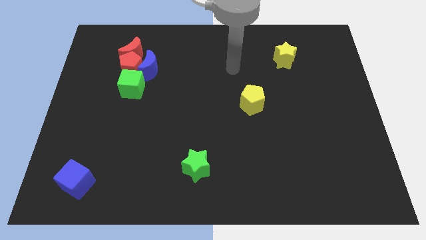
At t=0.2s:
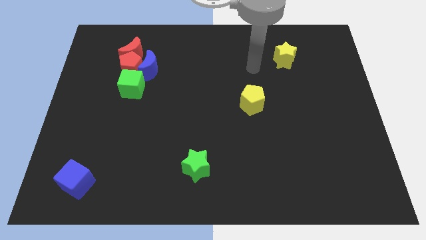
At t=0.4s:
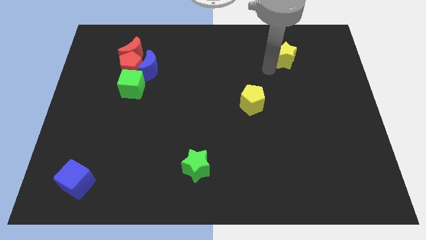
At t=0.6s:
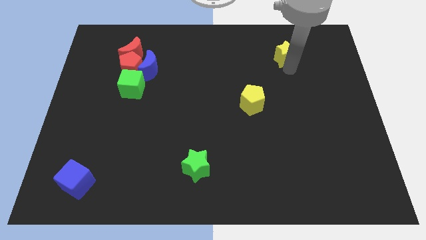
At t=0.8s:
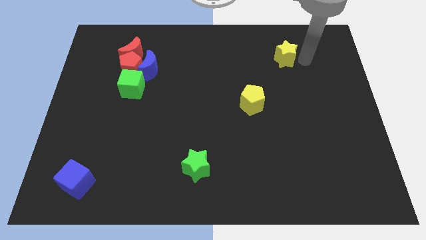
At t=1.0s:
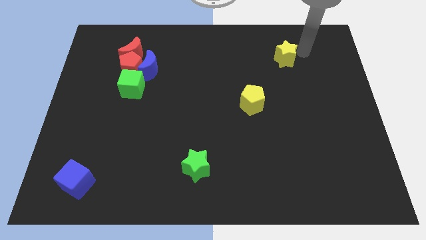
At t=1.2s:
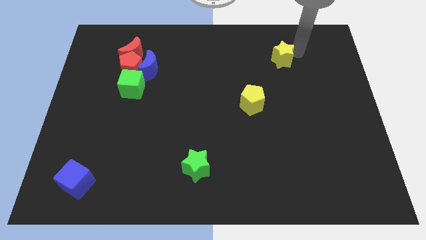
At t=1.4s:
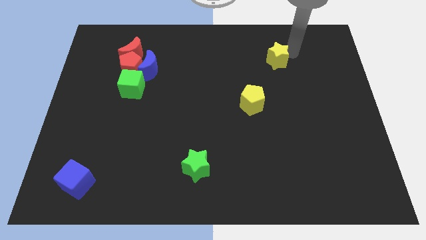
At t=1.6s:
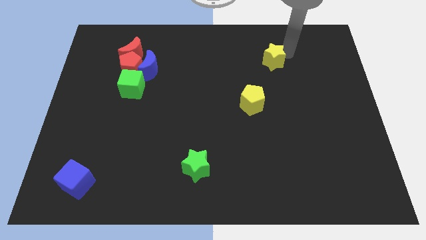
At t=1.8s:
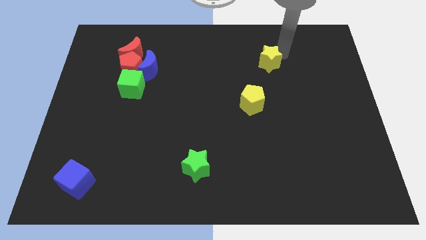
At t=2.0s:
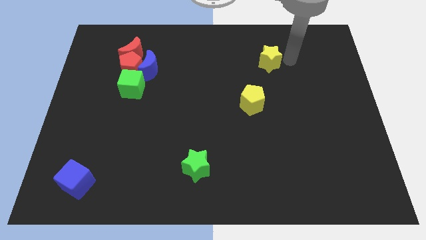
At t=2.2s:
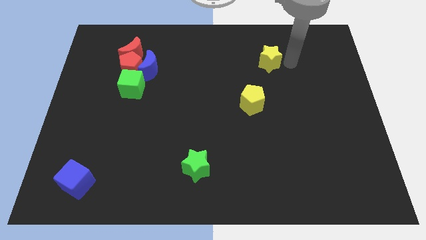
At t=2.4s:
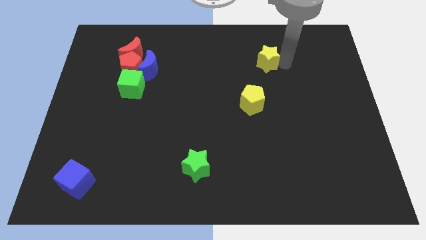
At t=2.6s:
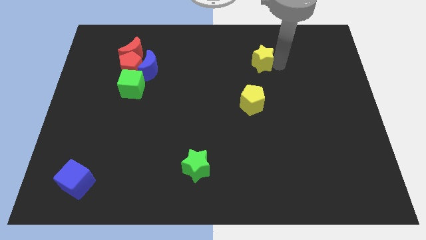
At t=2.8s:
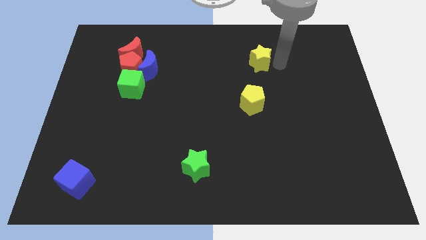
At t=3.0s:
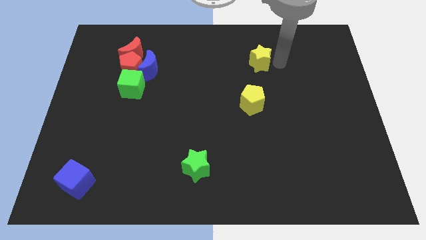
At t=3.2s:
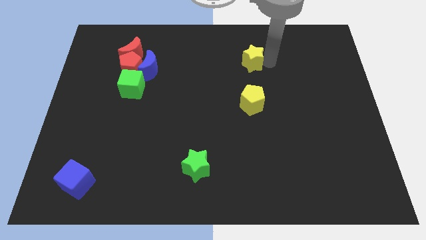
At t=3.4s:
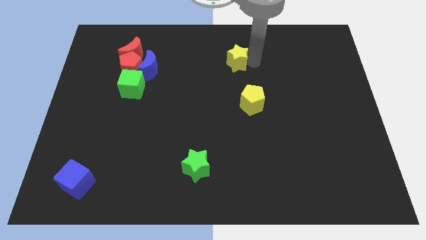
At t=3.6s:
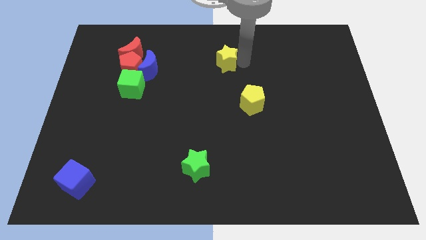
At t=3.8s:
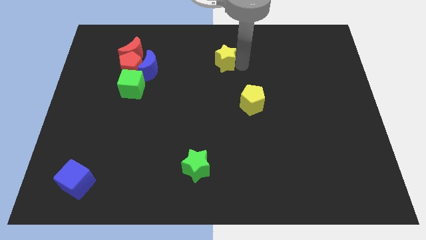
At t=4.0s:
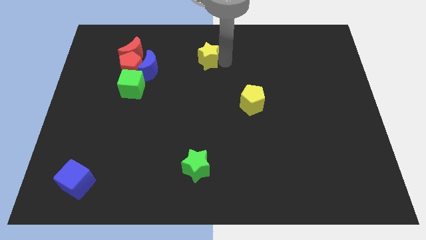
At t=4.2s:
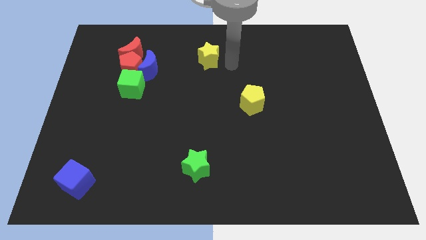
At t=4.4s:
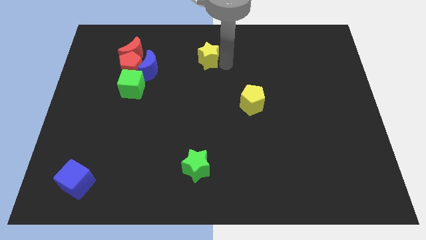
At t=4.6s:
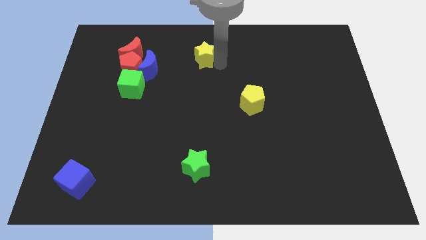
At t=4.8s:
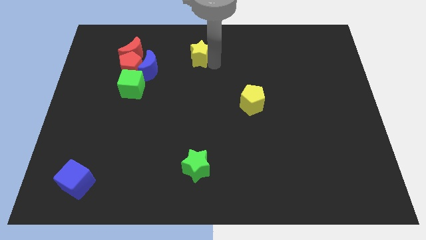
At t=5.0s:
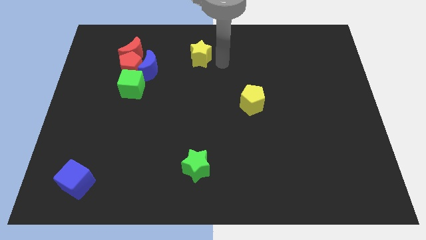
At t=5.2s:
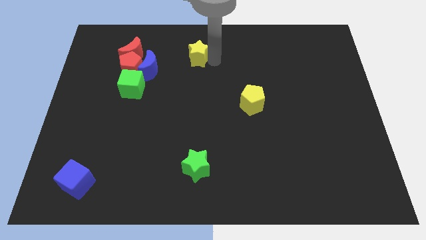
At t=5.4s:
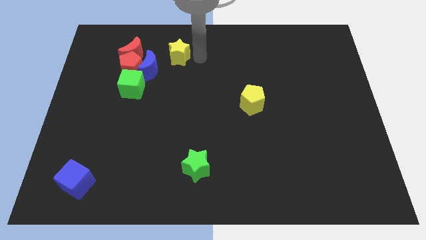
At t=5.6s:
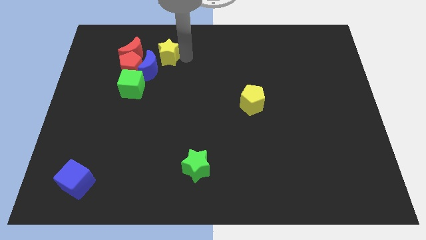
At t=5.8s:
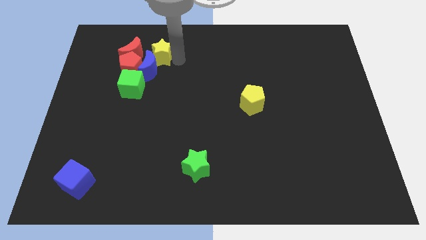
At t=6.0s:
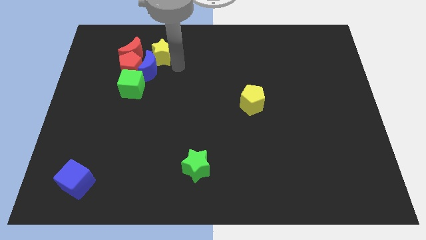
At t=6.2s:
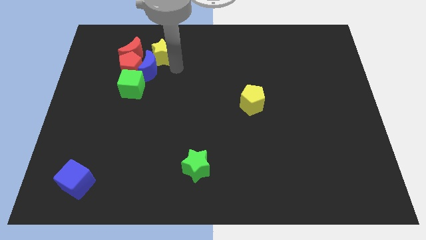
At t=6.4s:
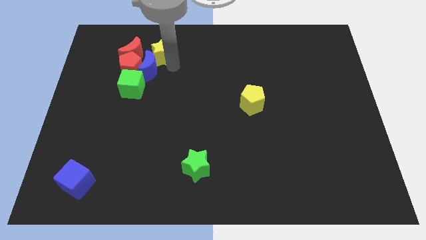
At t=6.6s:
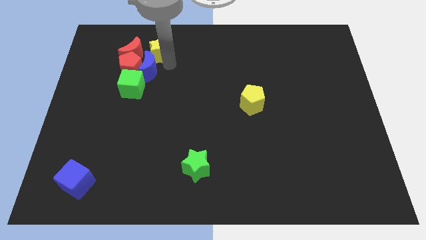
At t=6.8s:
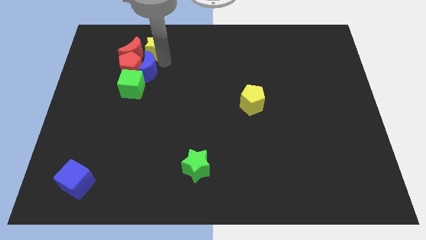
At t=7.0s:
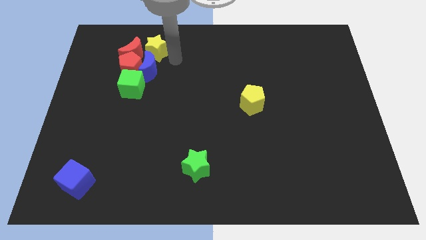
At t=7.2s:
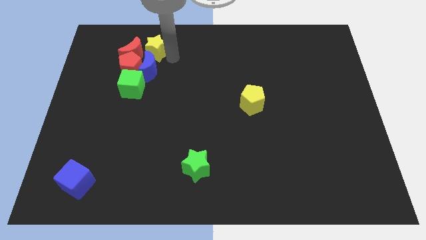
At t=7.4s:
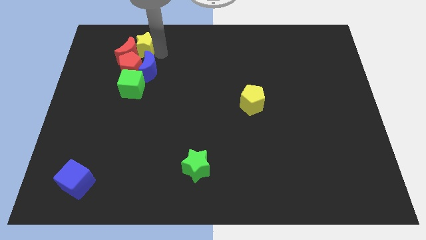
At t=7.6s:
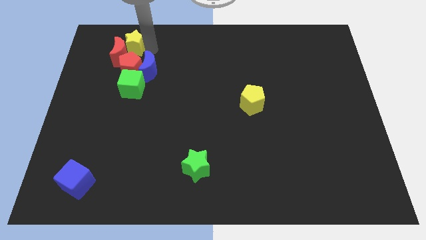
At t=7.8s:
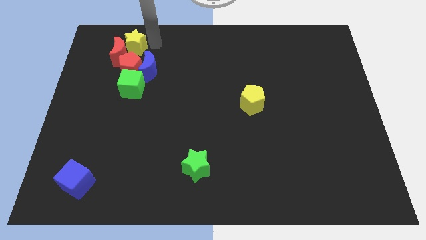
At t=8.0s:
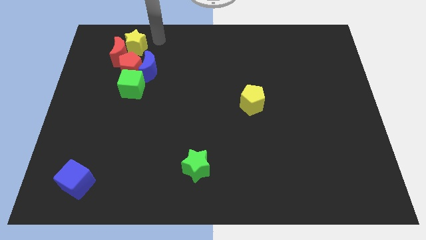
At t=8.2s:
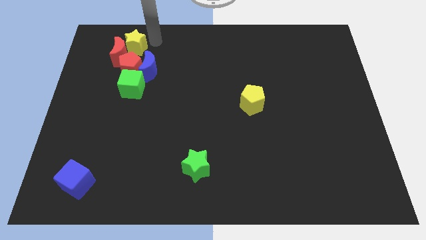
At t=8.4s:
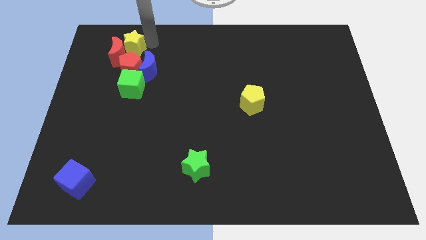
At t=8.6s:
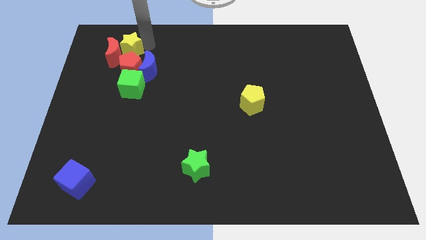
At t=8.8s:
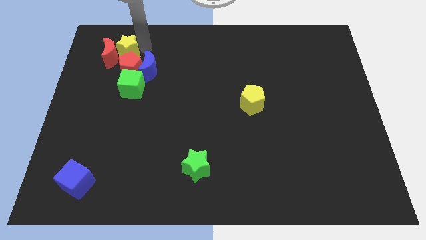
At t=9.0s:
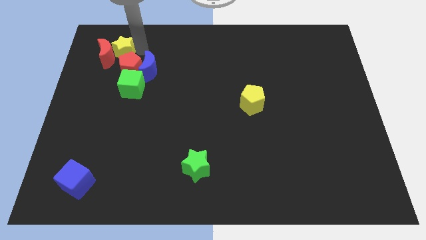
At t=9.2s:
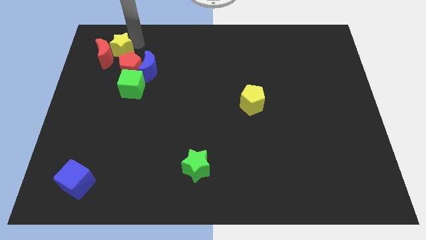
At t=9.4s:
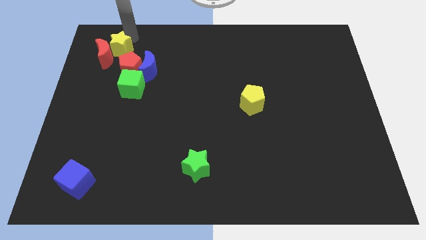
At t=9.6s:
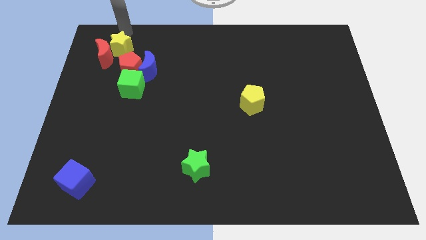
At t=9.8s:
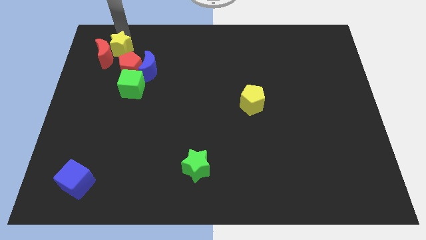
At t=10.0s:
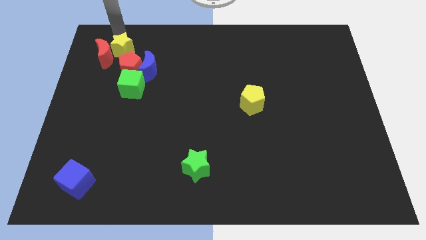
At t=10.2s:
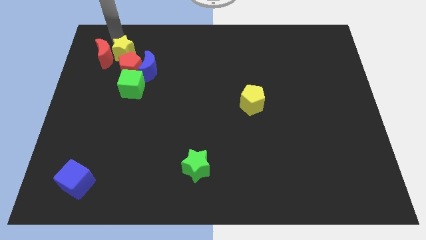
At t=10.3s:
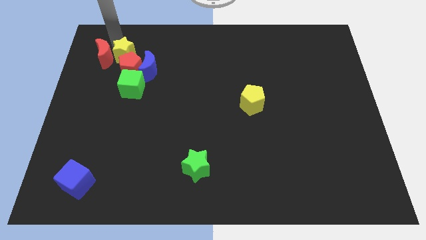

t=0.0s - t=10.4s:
push the yellow star to the red pentagon
